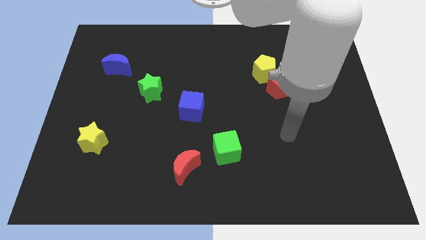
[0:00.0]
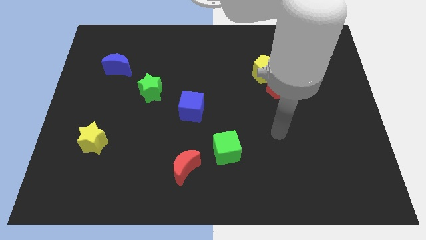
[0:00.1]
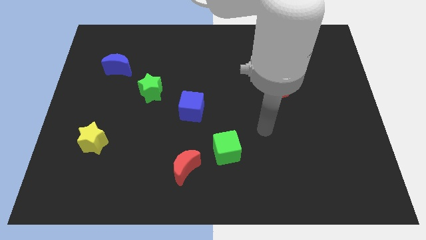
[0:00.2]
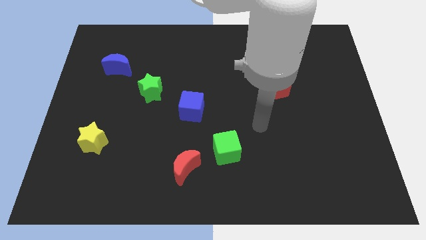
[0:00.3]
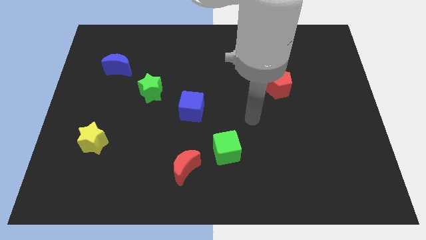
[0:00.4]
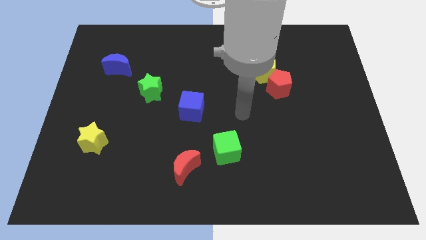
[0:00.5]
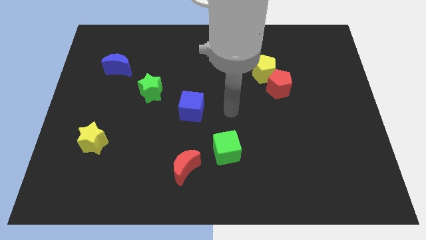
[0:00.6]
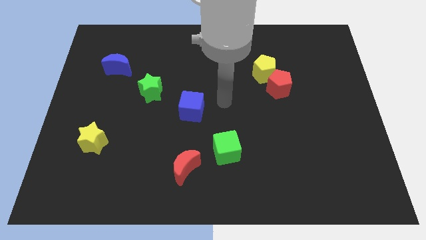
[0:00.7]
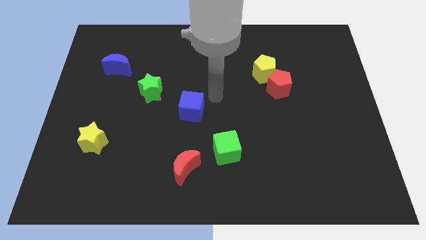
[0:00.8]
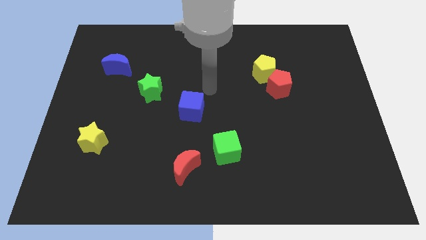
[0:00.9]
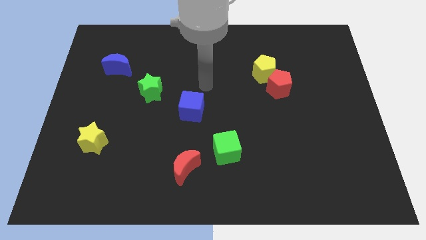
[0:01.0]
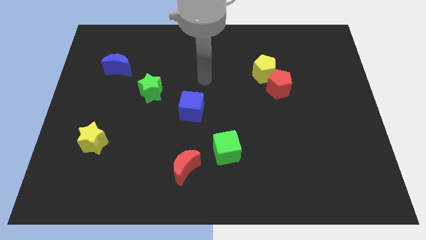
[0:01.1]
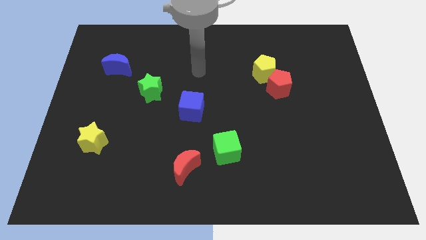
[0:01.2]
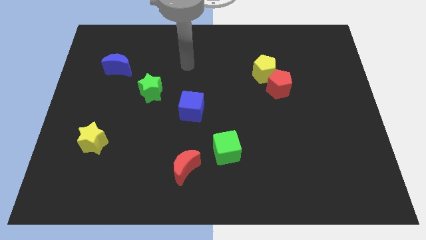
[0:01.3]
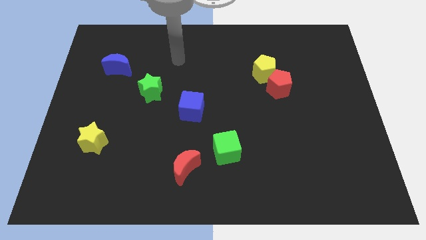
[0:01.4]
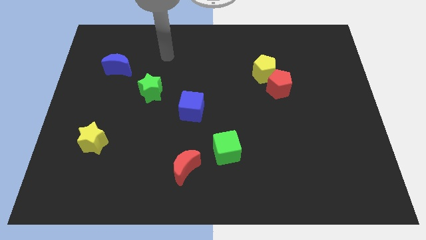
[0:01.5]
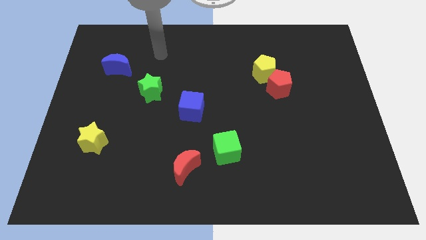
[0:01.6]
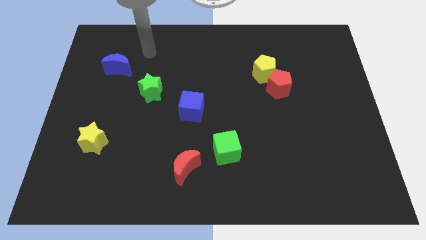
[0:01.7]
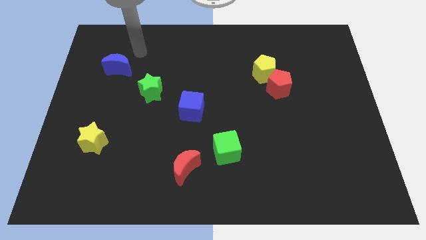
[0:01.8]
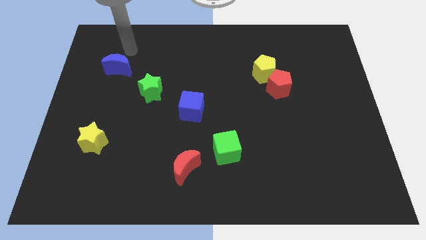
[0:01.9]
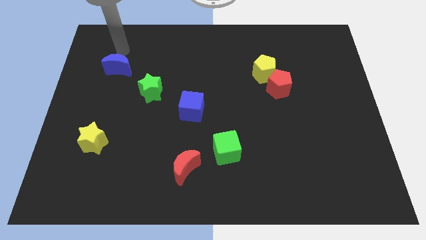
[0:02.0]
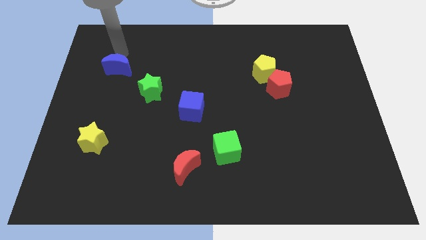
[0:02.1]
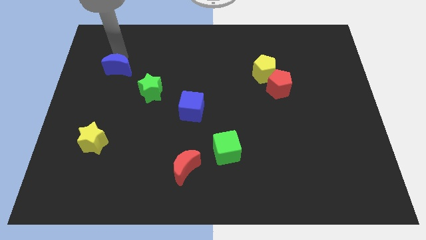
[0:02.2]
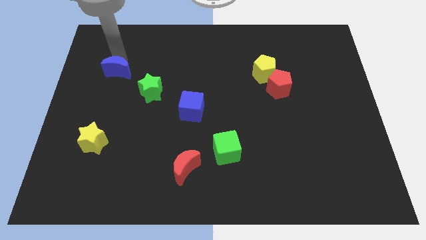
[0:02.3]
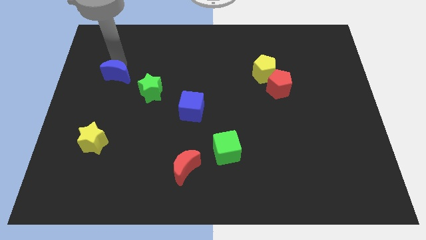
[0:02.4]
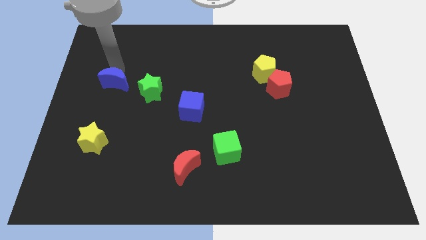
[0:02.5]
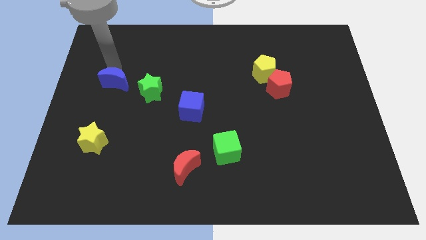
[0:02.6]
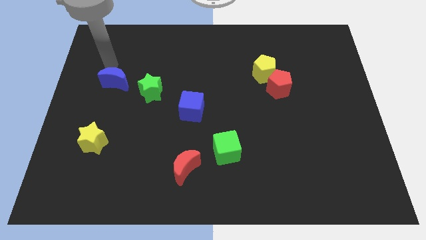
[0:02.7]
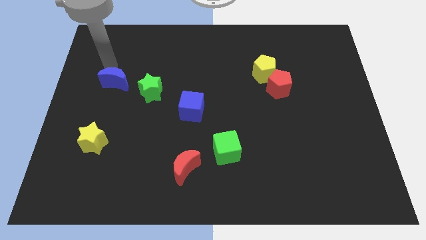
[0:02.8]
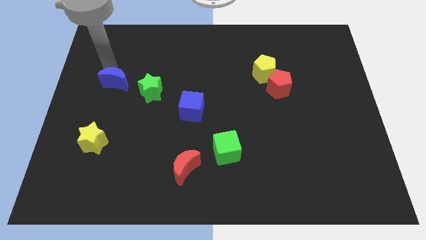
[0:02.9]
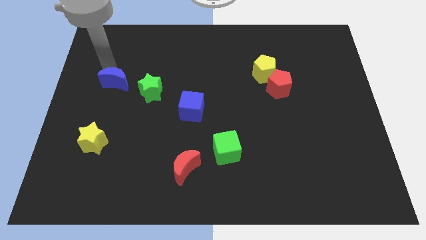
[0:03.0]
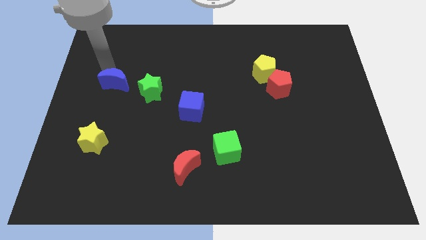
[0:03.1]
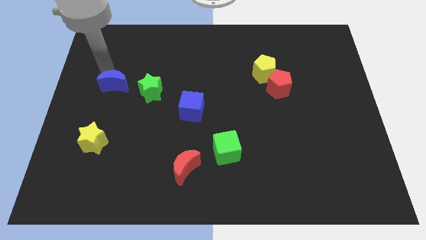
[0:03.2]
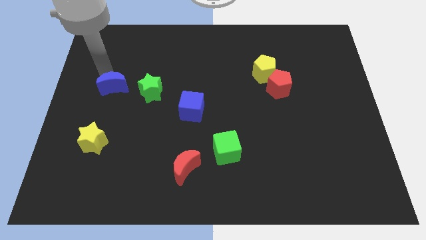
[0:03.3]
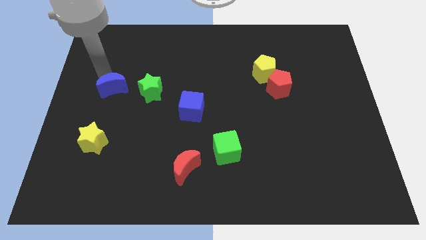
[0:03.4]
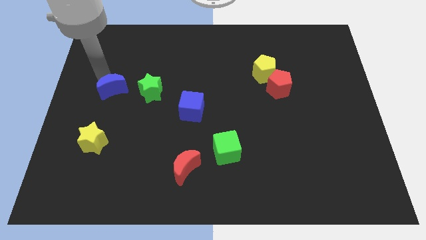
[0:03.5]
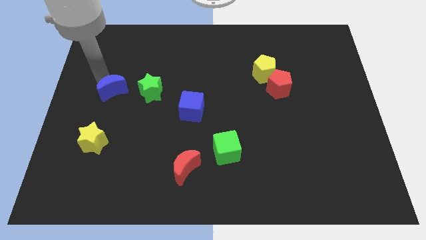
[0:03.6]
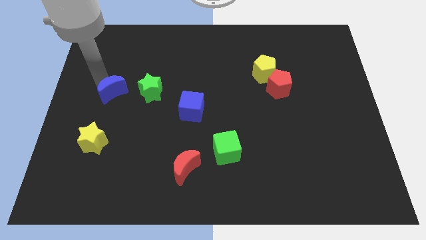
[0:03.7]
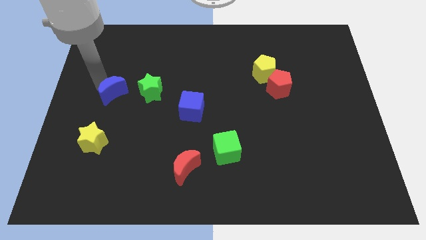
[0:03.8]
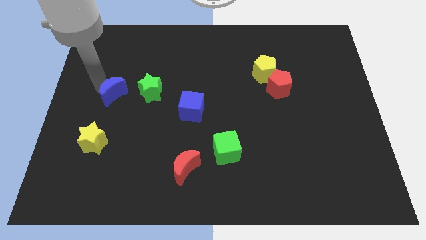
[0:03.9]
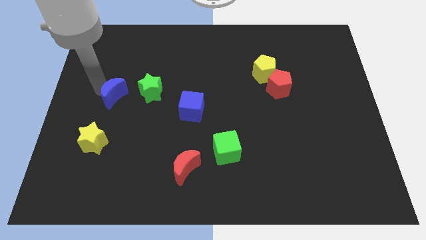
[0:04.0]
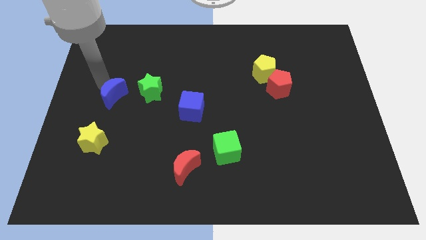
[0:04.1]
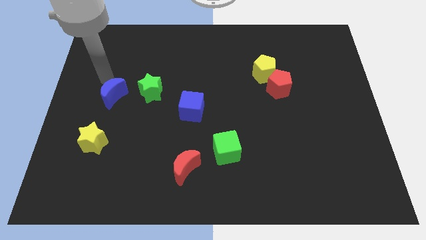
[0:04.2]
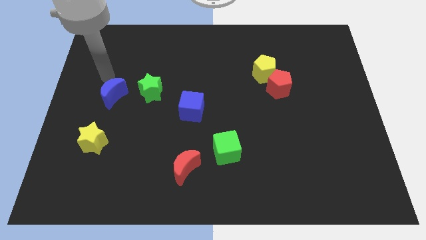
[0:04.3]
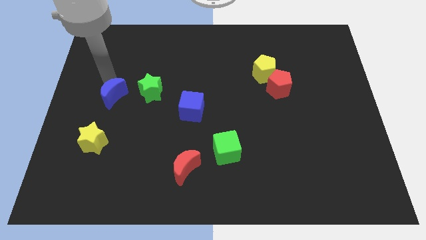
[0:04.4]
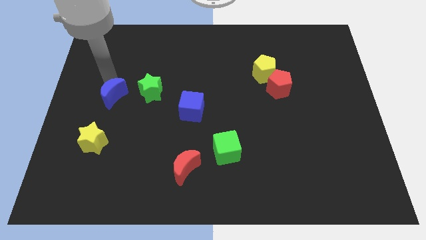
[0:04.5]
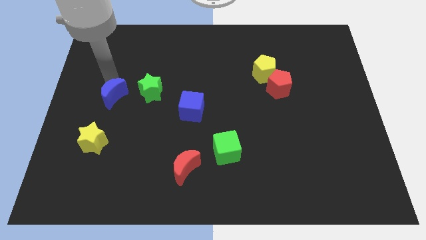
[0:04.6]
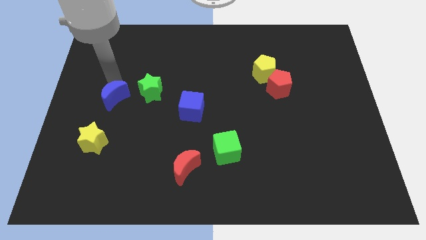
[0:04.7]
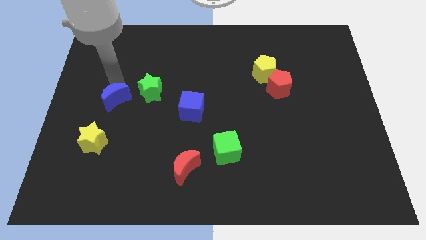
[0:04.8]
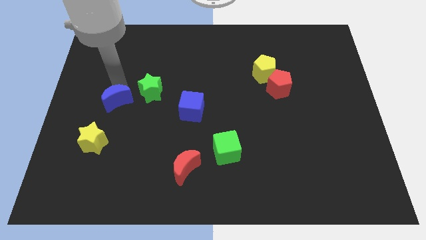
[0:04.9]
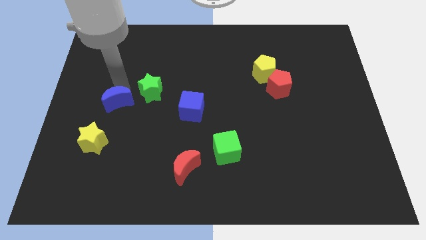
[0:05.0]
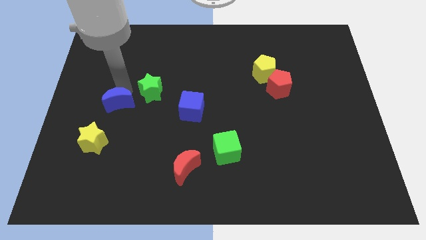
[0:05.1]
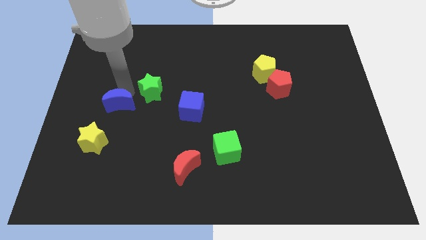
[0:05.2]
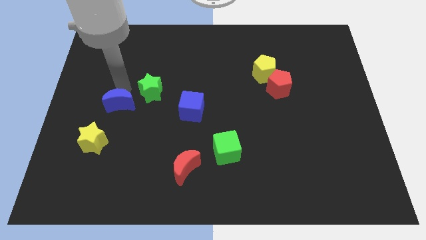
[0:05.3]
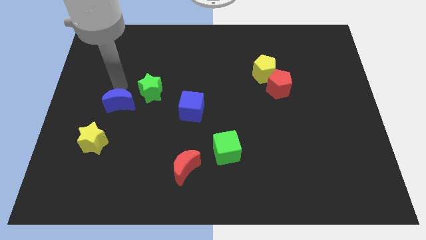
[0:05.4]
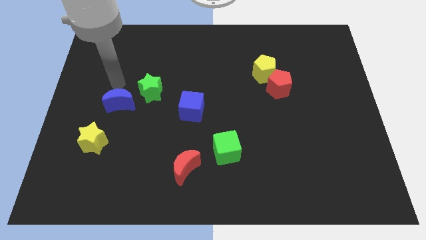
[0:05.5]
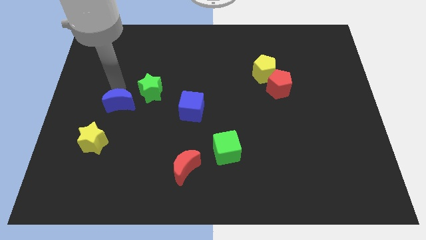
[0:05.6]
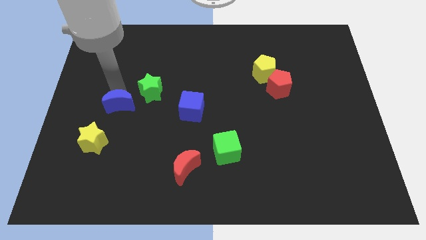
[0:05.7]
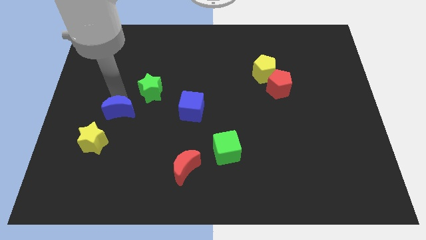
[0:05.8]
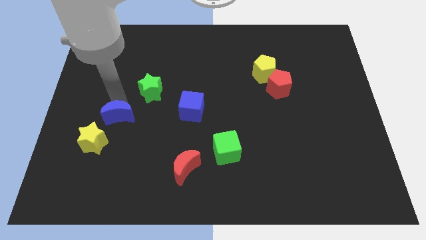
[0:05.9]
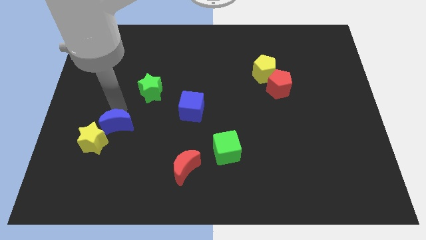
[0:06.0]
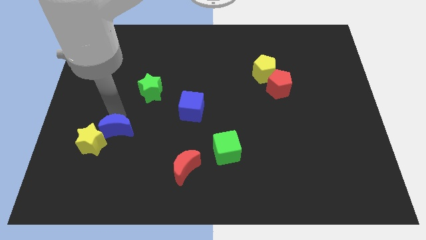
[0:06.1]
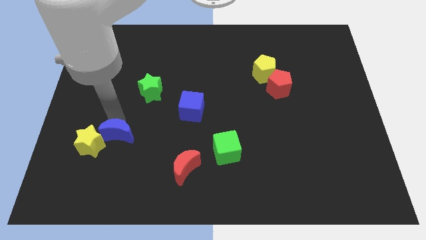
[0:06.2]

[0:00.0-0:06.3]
slide the blue moon downwards

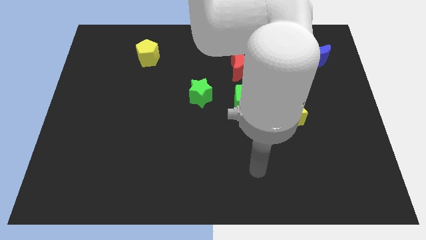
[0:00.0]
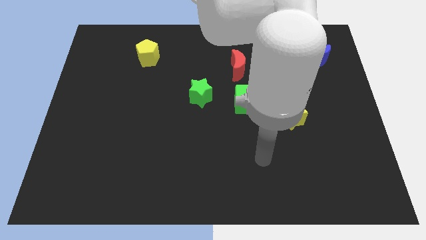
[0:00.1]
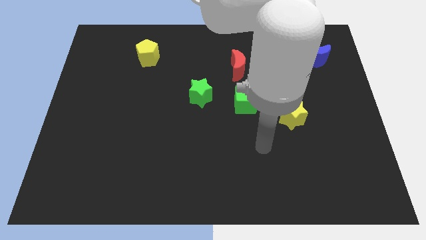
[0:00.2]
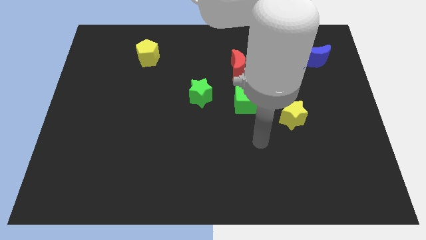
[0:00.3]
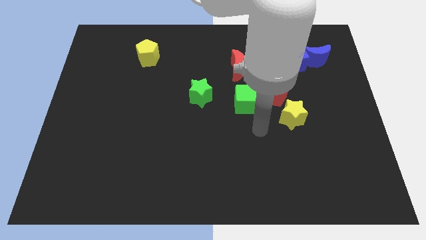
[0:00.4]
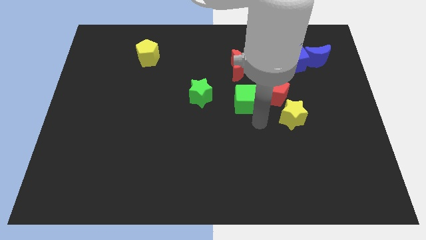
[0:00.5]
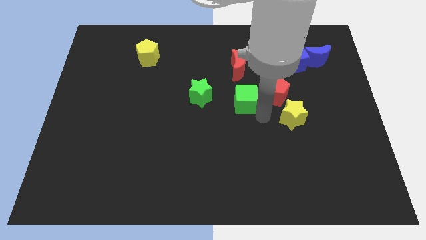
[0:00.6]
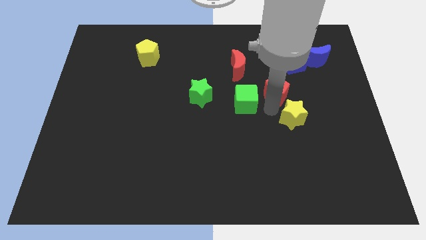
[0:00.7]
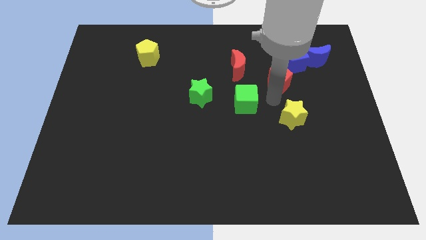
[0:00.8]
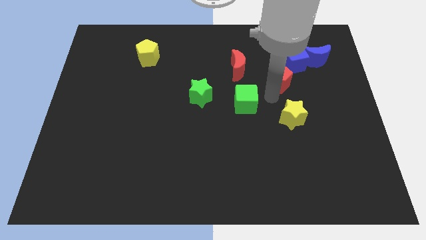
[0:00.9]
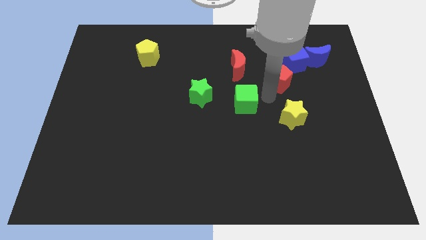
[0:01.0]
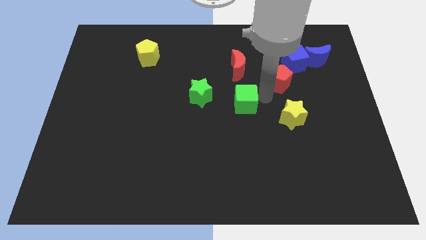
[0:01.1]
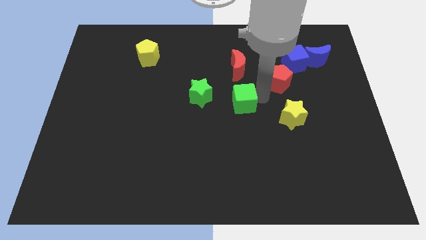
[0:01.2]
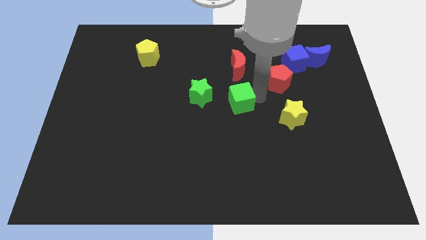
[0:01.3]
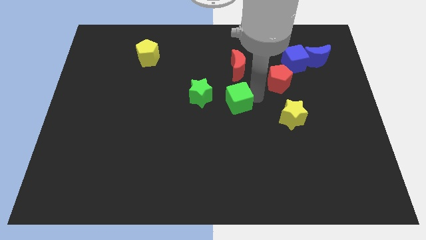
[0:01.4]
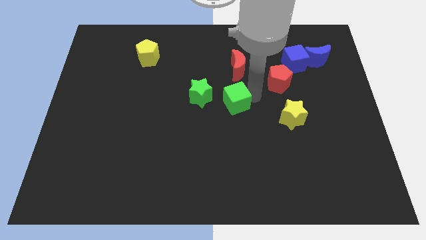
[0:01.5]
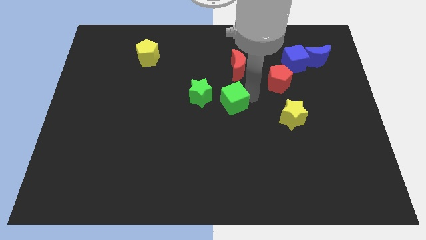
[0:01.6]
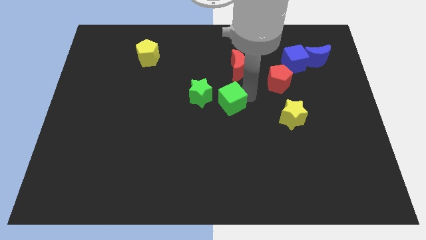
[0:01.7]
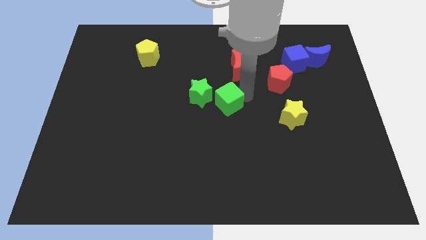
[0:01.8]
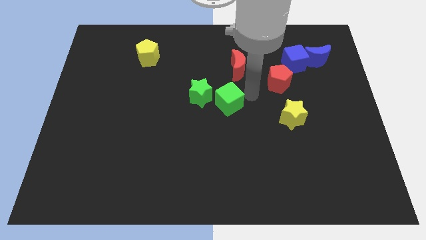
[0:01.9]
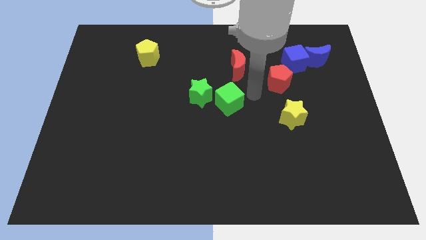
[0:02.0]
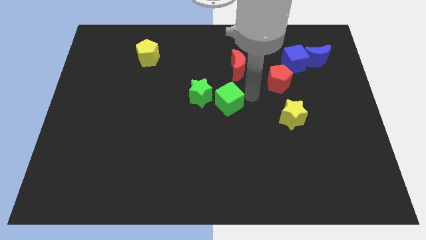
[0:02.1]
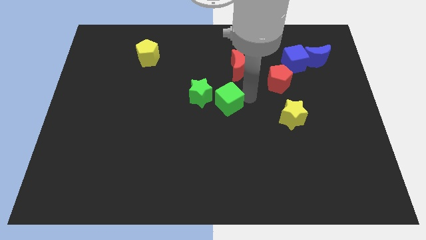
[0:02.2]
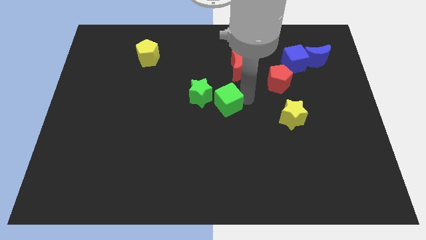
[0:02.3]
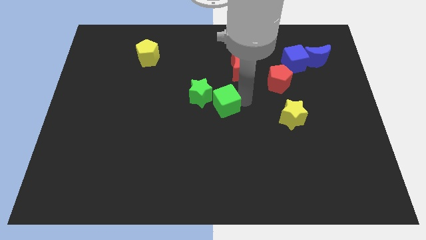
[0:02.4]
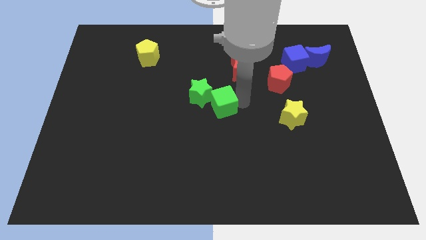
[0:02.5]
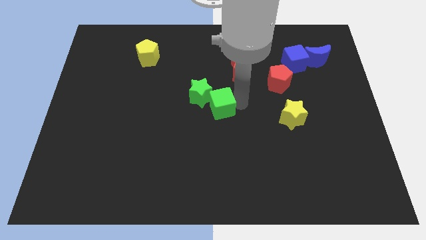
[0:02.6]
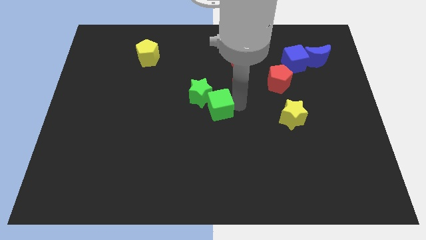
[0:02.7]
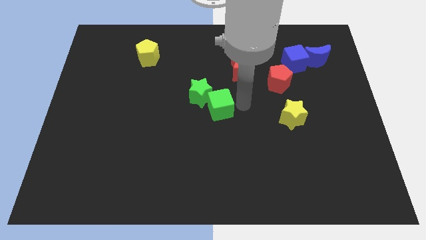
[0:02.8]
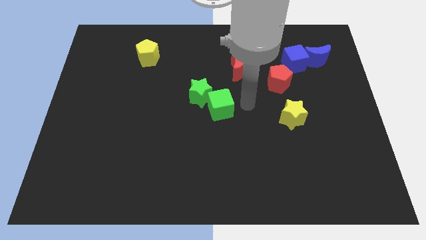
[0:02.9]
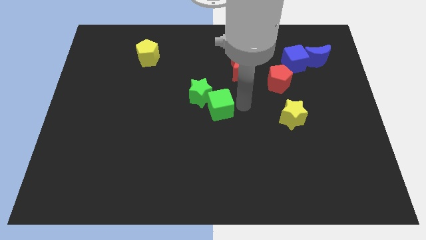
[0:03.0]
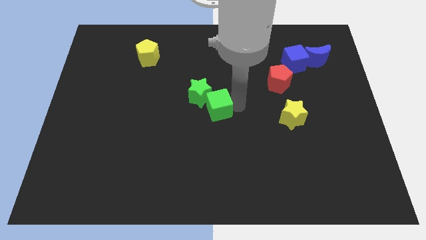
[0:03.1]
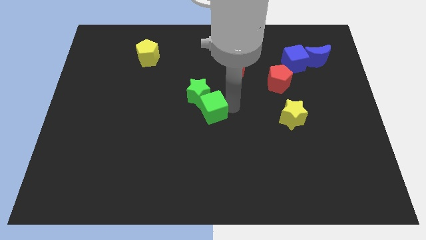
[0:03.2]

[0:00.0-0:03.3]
move the green cube to the left slightly
